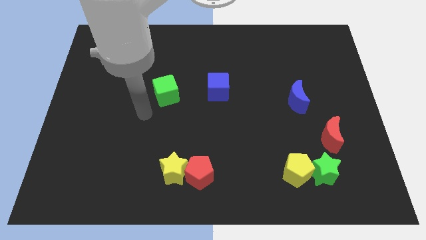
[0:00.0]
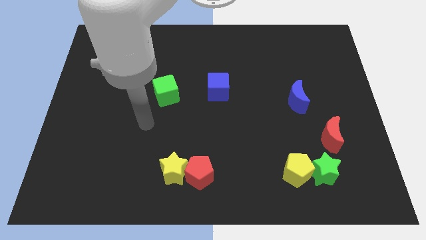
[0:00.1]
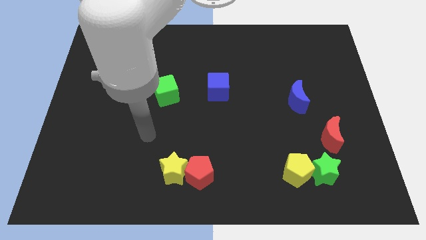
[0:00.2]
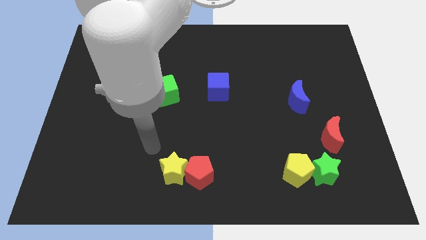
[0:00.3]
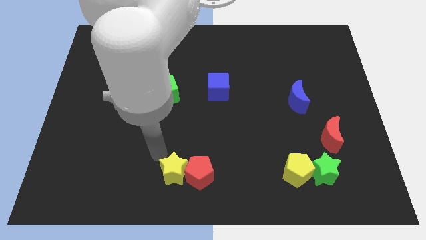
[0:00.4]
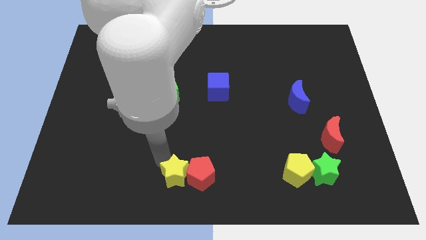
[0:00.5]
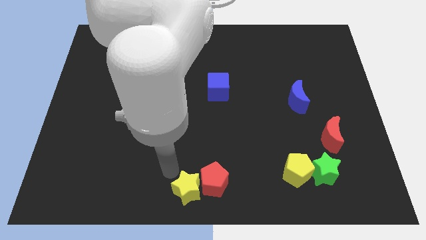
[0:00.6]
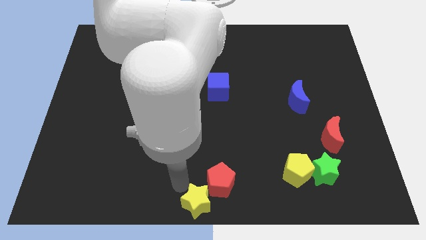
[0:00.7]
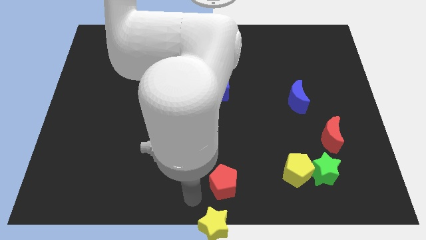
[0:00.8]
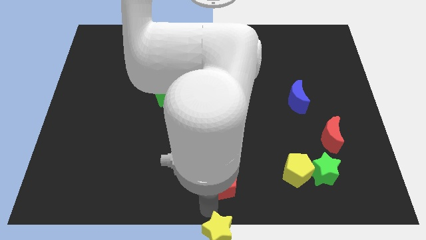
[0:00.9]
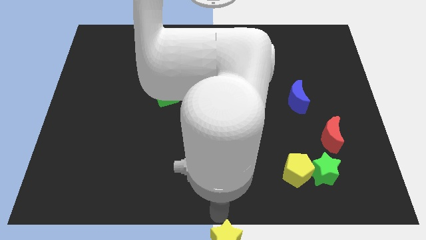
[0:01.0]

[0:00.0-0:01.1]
pull the red pentagon apart from the yellow star

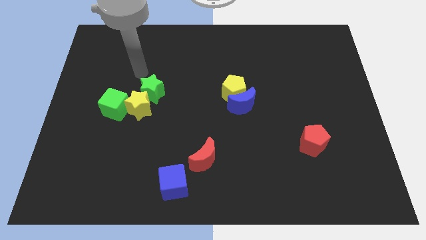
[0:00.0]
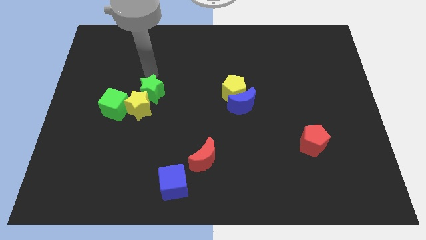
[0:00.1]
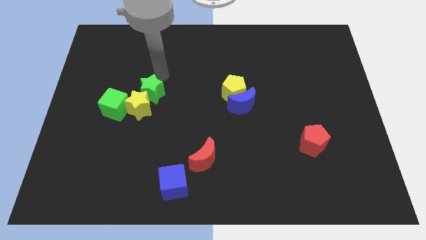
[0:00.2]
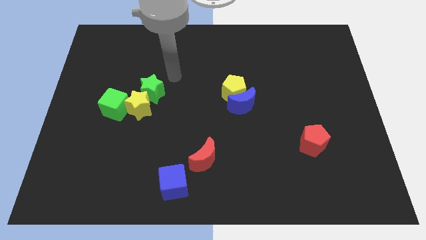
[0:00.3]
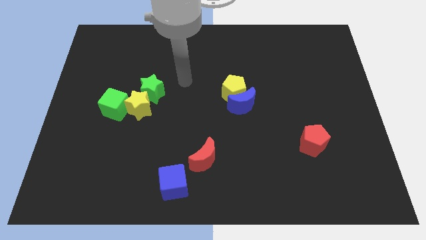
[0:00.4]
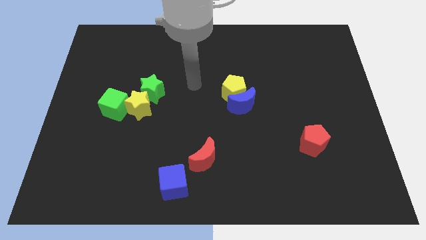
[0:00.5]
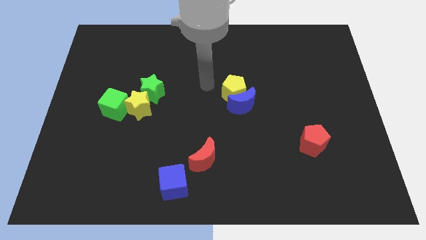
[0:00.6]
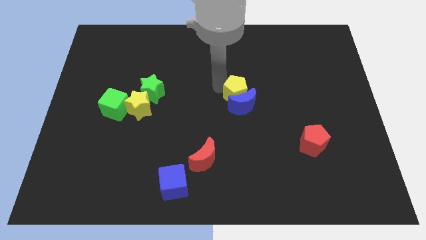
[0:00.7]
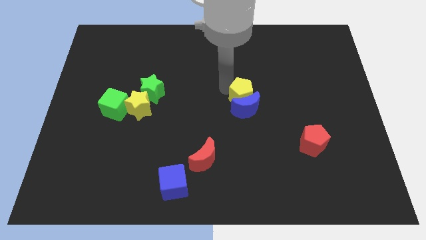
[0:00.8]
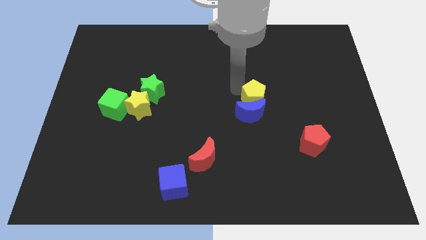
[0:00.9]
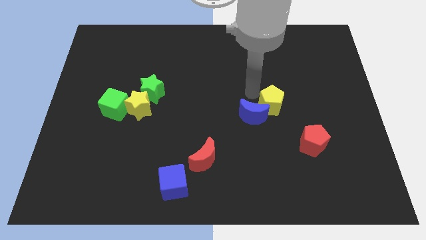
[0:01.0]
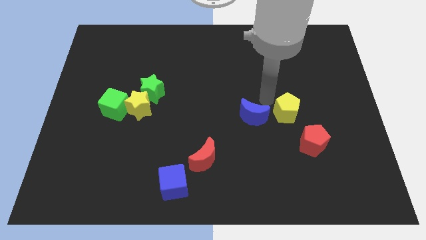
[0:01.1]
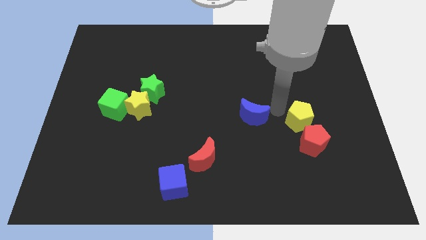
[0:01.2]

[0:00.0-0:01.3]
pull the blue moon apart from the yellow pentagon

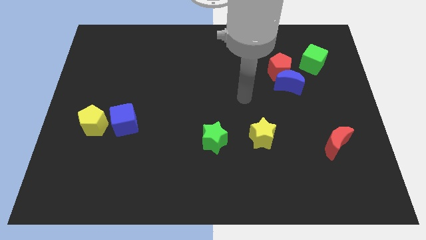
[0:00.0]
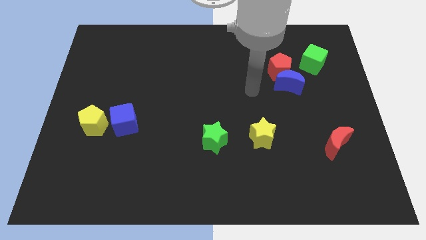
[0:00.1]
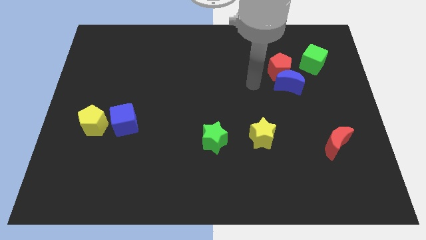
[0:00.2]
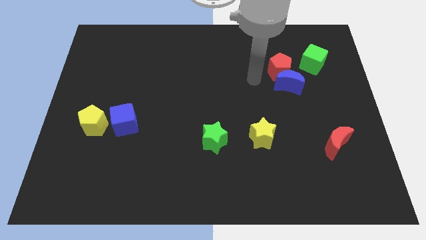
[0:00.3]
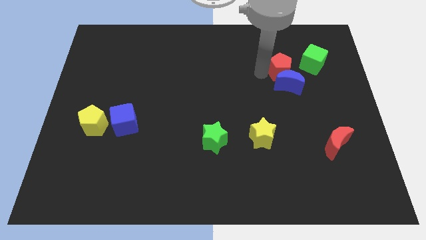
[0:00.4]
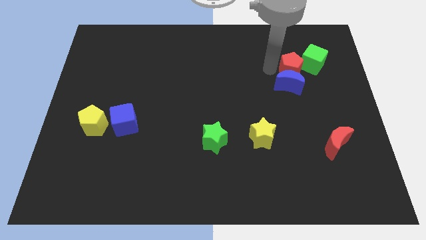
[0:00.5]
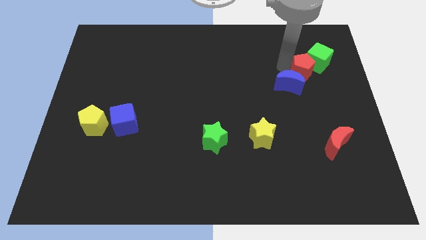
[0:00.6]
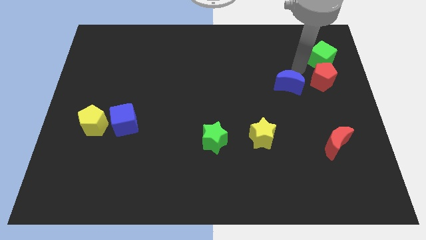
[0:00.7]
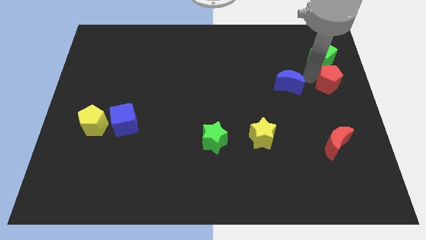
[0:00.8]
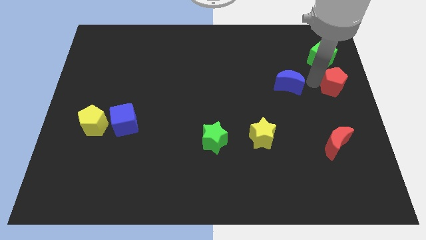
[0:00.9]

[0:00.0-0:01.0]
separate the blue moon from the red pentagon

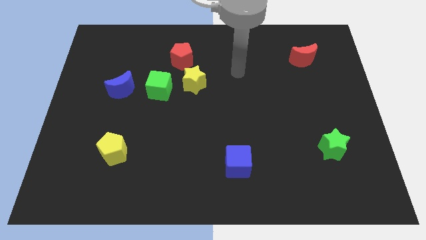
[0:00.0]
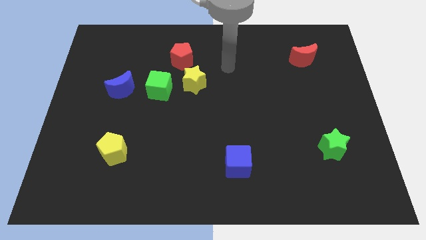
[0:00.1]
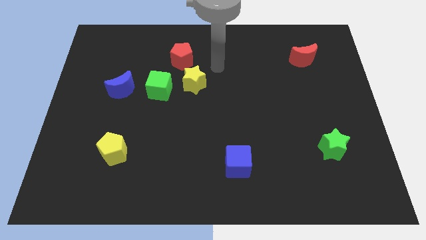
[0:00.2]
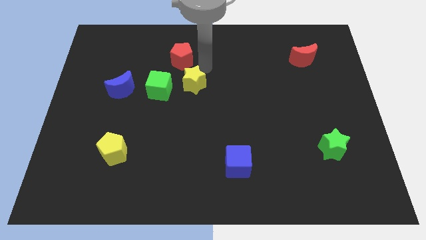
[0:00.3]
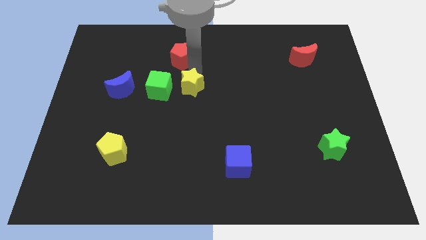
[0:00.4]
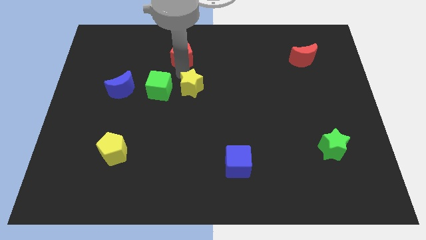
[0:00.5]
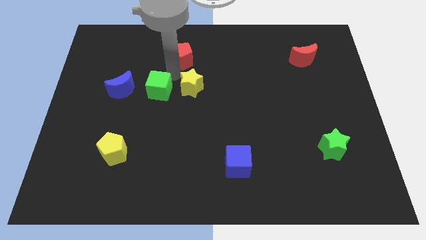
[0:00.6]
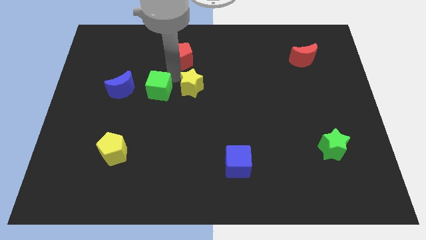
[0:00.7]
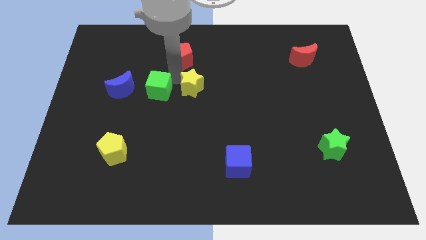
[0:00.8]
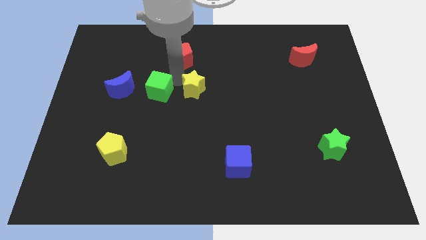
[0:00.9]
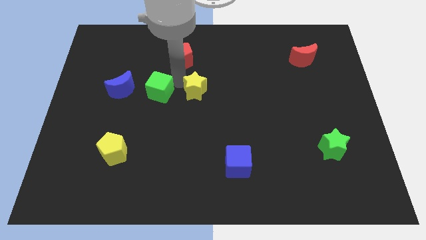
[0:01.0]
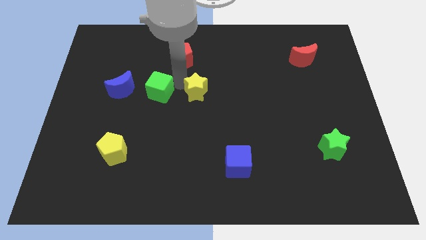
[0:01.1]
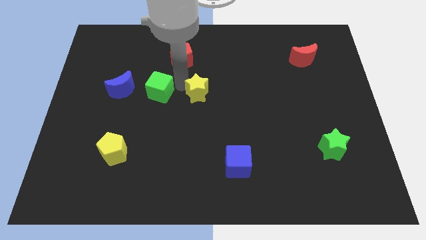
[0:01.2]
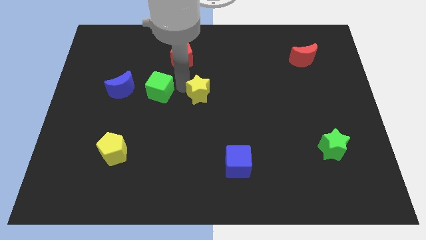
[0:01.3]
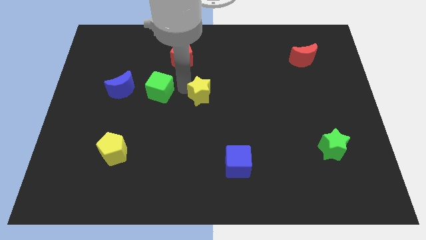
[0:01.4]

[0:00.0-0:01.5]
move the yellow star away from the green cube and red pentagon

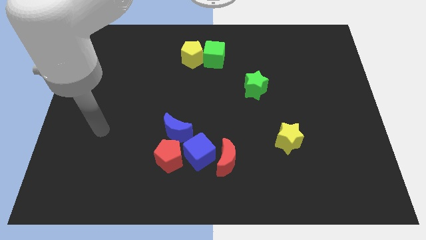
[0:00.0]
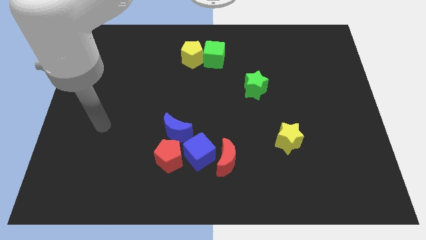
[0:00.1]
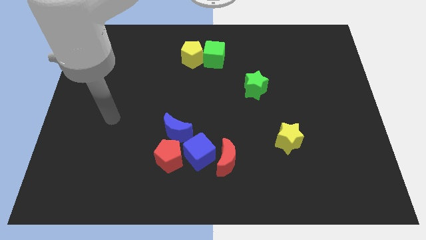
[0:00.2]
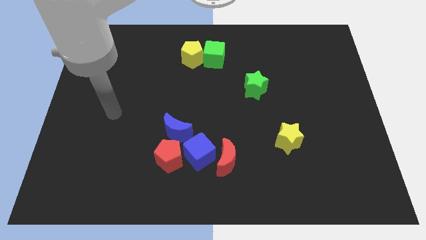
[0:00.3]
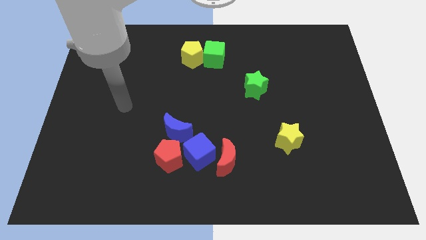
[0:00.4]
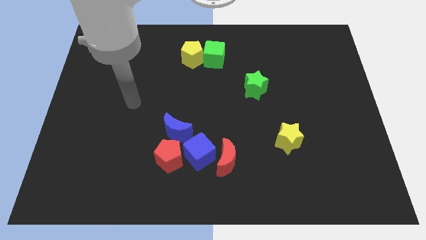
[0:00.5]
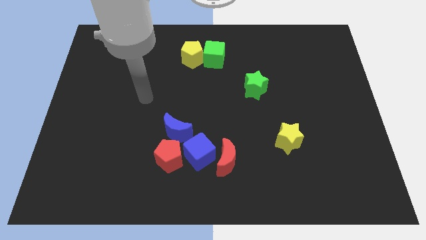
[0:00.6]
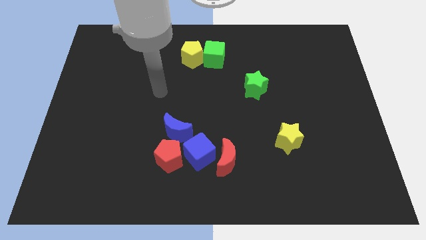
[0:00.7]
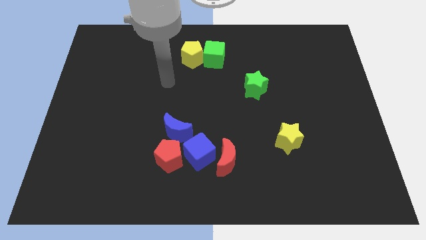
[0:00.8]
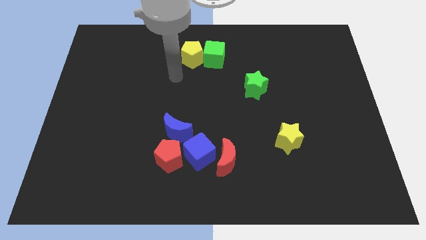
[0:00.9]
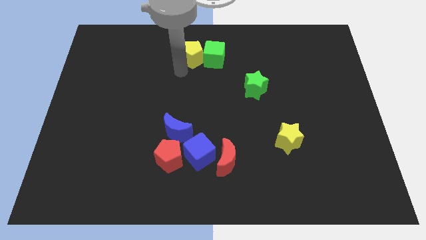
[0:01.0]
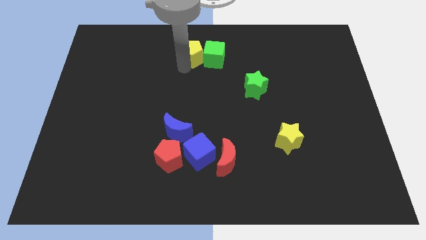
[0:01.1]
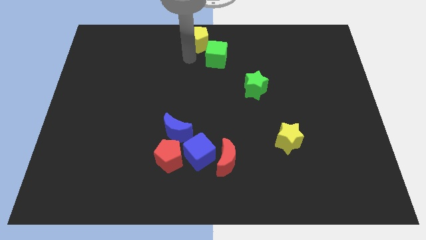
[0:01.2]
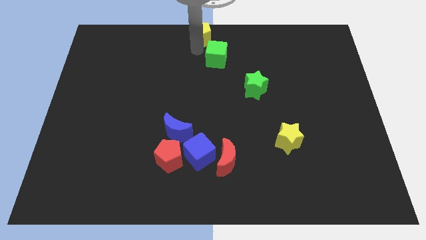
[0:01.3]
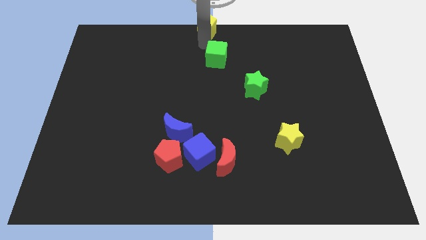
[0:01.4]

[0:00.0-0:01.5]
move the green cube away from the yellow pentagon

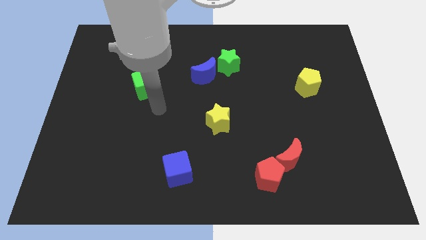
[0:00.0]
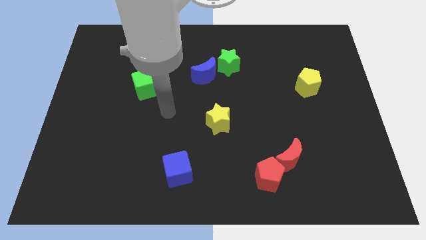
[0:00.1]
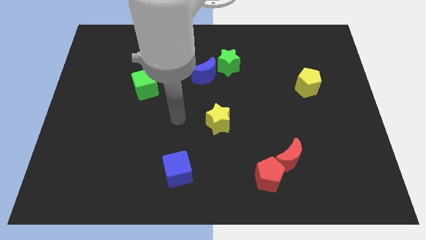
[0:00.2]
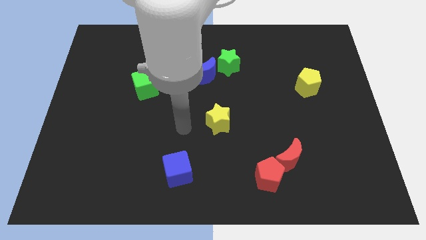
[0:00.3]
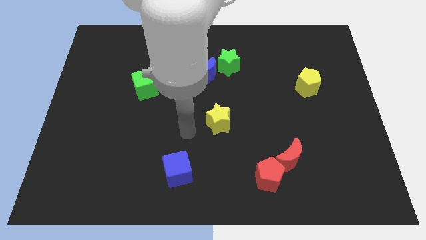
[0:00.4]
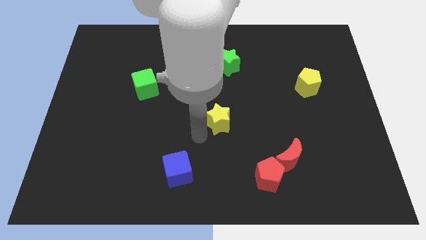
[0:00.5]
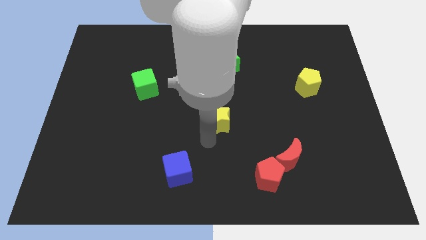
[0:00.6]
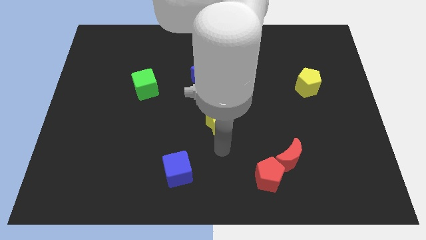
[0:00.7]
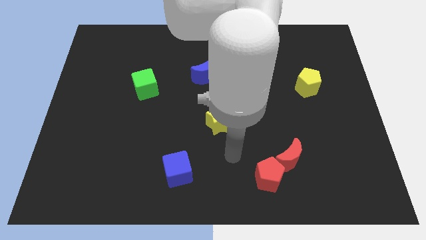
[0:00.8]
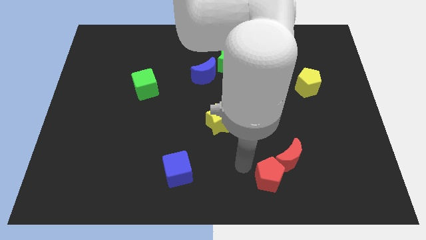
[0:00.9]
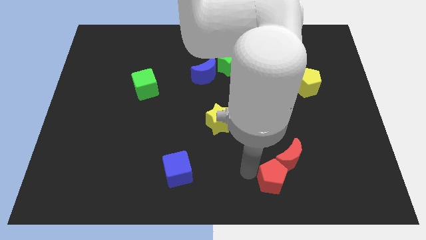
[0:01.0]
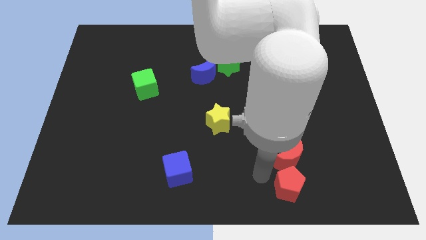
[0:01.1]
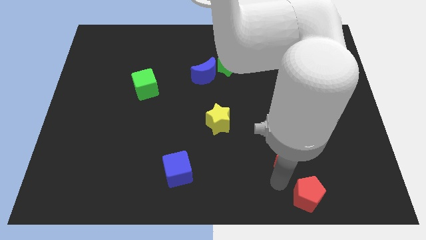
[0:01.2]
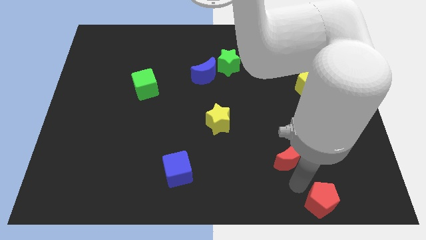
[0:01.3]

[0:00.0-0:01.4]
pull the red moon apart from the red pentagon

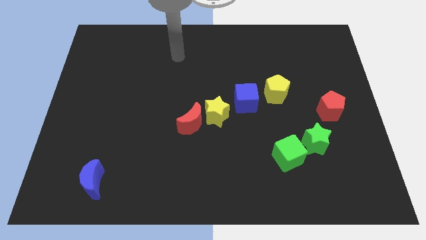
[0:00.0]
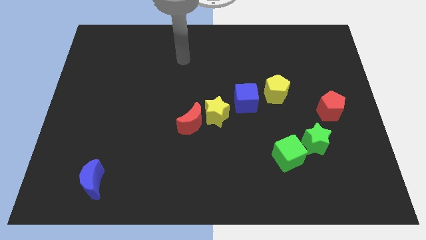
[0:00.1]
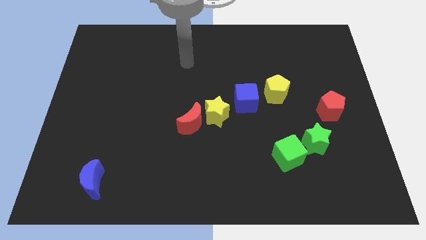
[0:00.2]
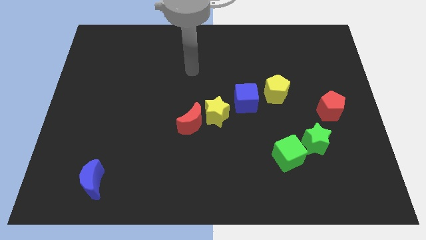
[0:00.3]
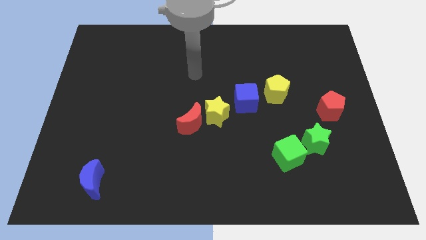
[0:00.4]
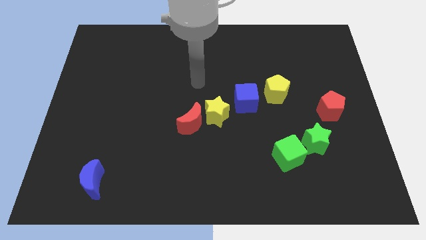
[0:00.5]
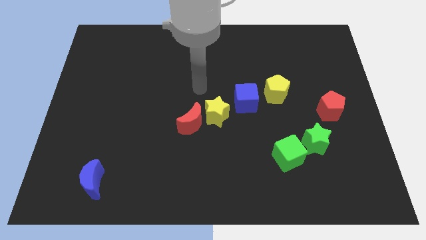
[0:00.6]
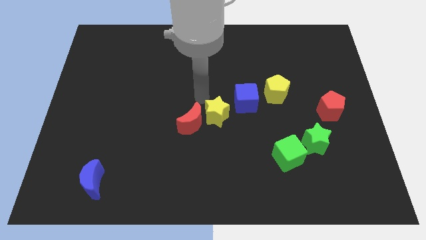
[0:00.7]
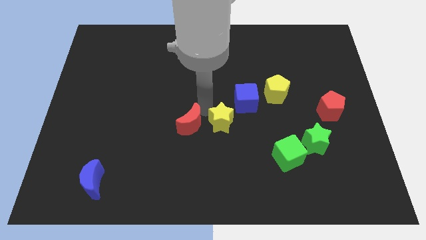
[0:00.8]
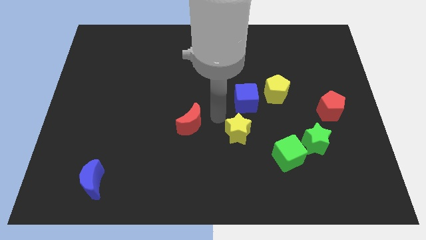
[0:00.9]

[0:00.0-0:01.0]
pull the red moon apart from the yellow star

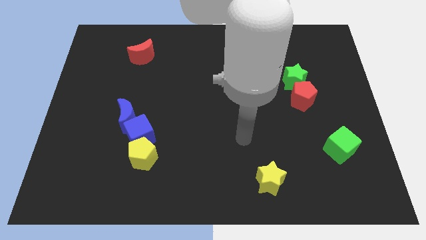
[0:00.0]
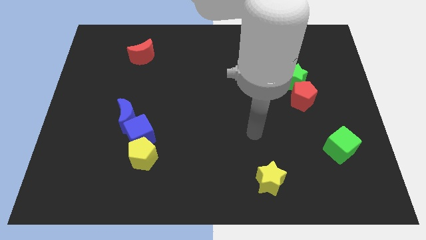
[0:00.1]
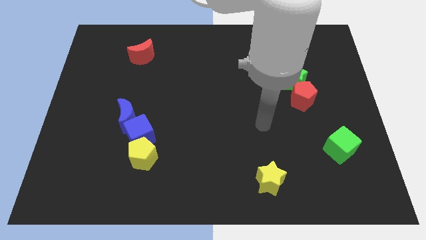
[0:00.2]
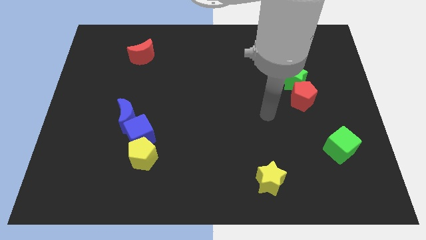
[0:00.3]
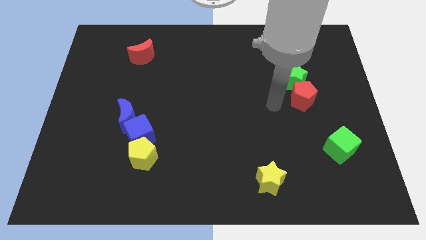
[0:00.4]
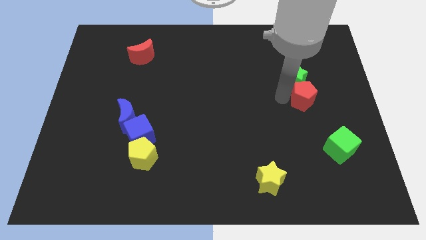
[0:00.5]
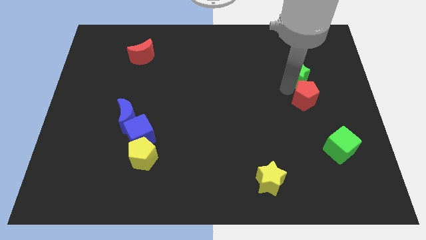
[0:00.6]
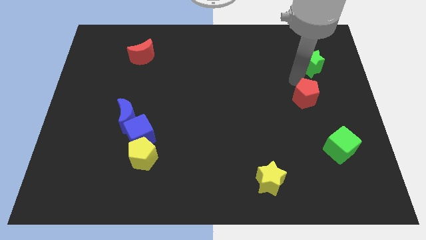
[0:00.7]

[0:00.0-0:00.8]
pull the red pentagon apart from the green star
